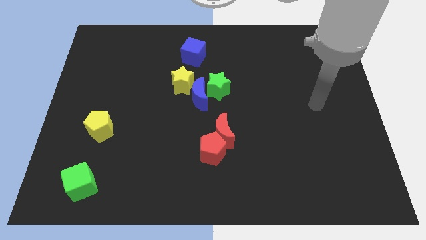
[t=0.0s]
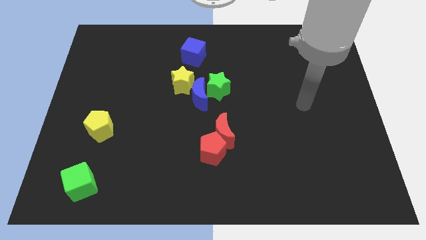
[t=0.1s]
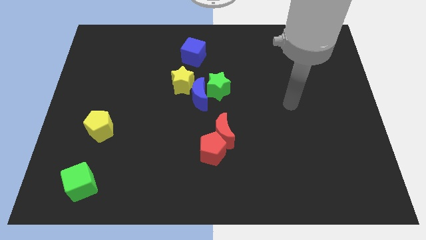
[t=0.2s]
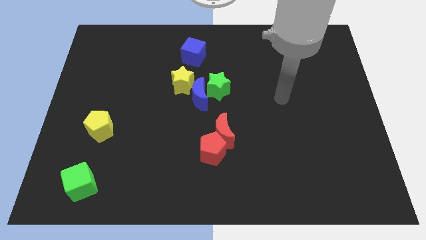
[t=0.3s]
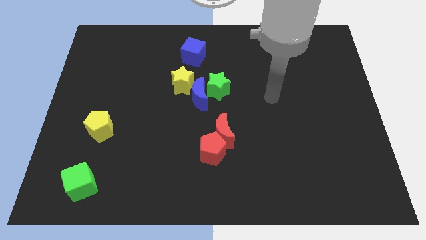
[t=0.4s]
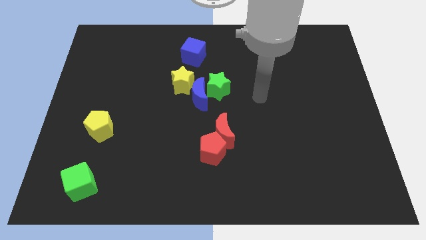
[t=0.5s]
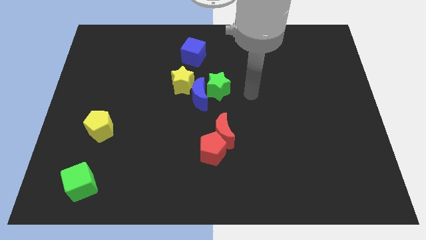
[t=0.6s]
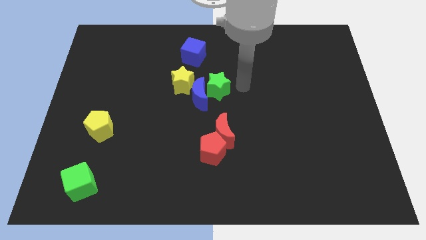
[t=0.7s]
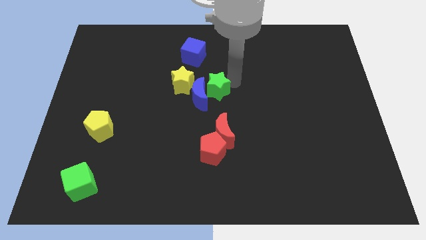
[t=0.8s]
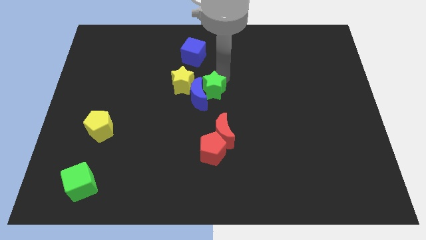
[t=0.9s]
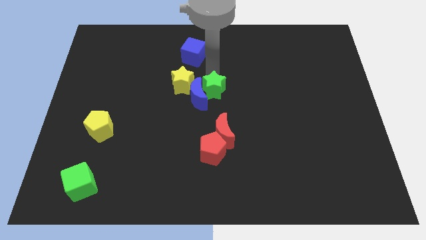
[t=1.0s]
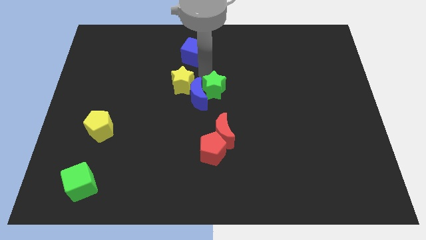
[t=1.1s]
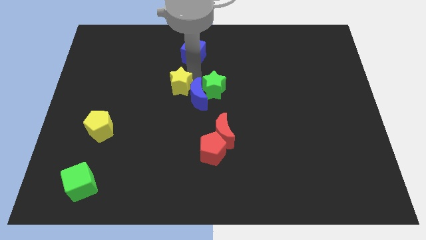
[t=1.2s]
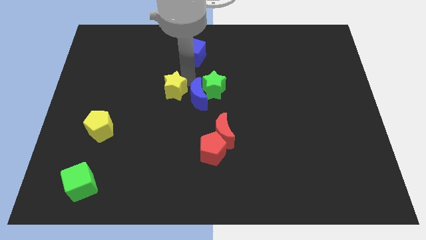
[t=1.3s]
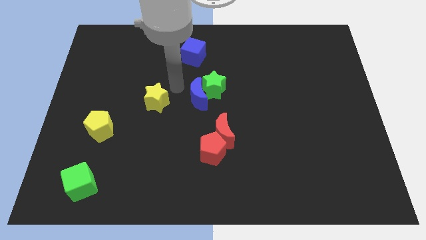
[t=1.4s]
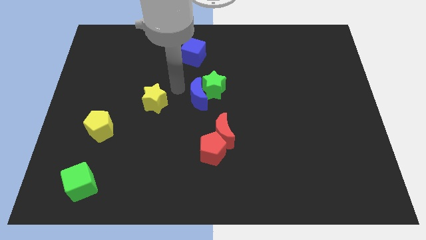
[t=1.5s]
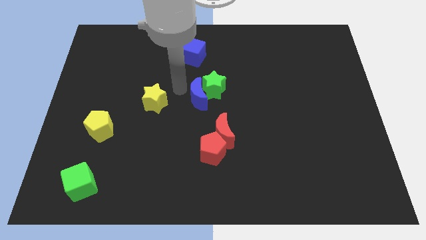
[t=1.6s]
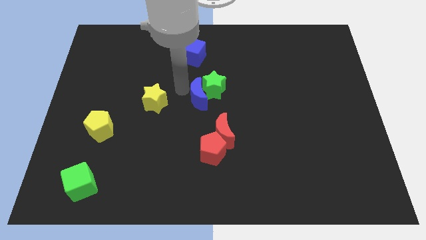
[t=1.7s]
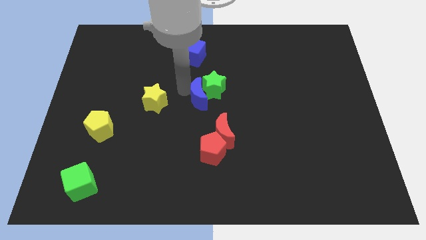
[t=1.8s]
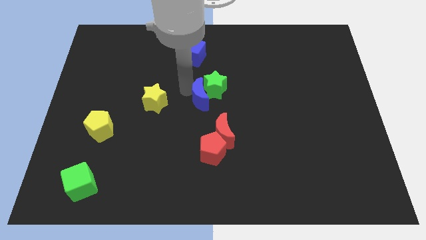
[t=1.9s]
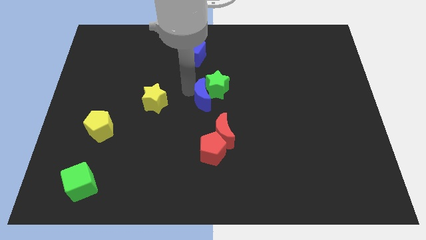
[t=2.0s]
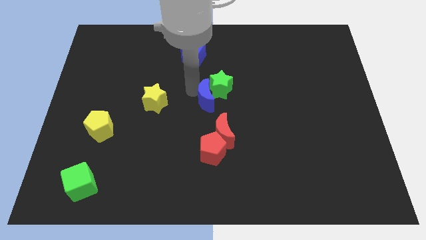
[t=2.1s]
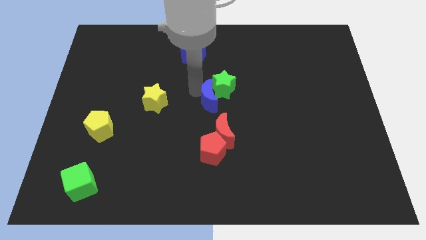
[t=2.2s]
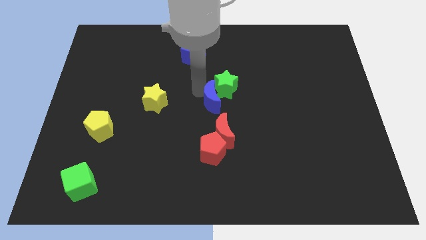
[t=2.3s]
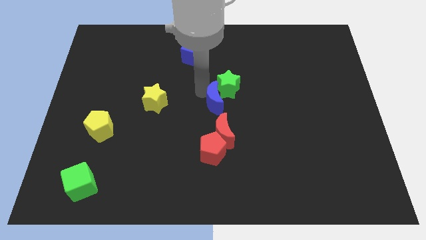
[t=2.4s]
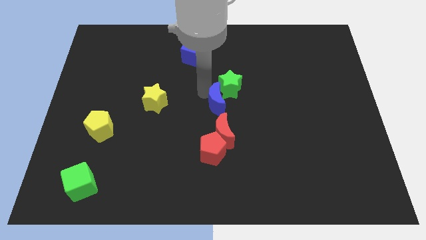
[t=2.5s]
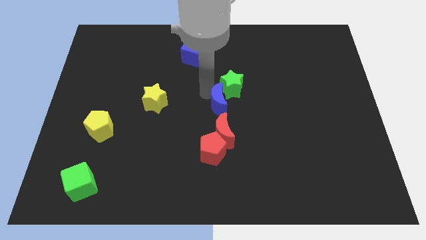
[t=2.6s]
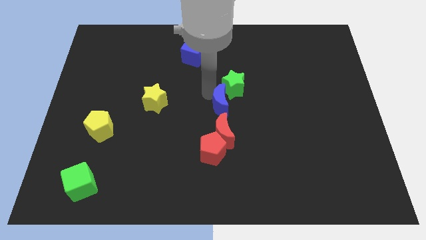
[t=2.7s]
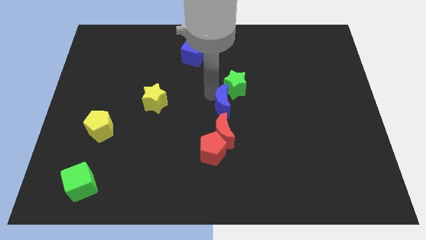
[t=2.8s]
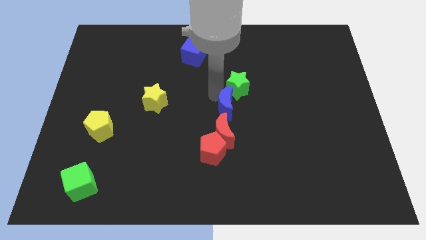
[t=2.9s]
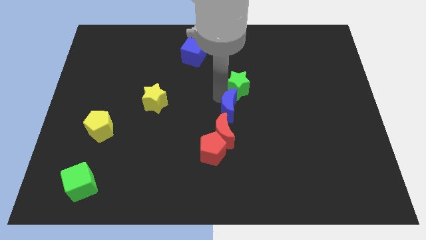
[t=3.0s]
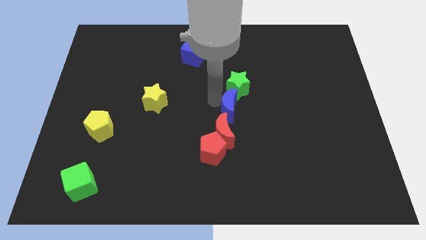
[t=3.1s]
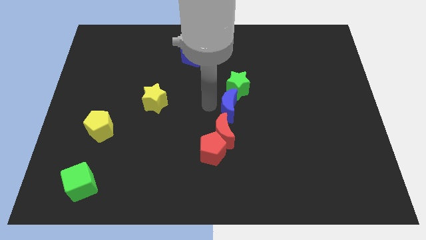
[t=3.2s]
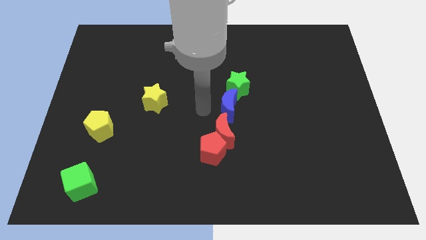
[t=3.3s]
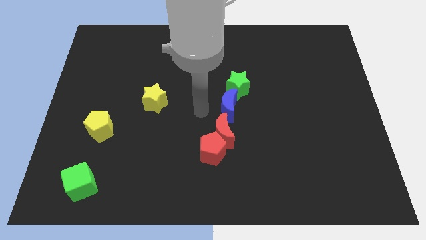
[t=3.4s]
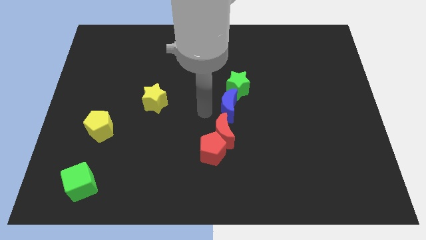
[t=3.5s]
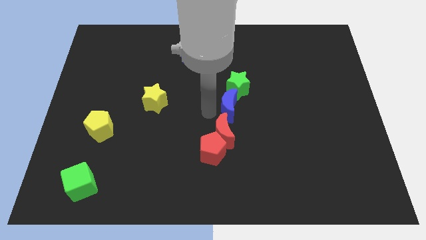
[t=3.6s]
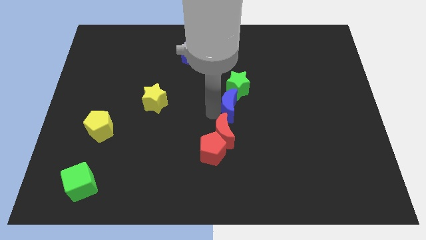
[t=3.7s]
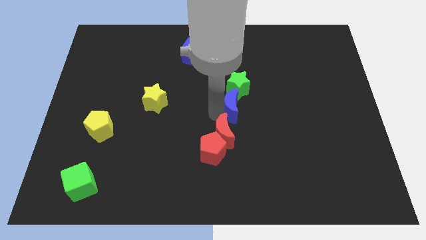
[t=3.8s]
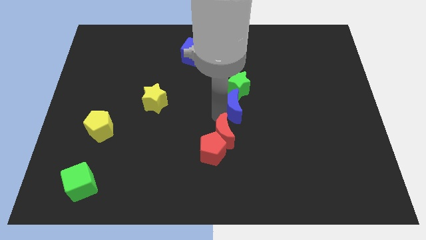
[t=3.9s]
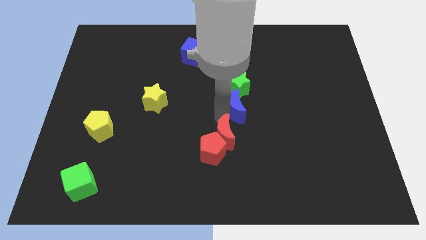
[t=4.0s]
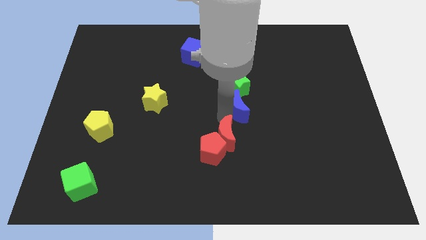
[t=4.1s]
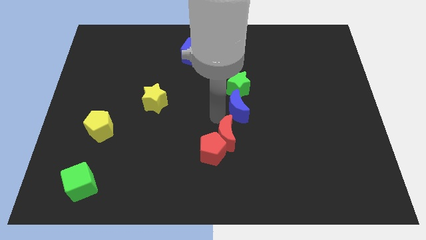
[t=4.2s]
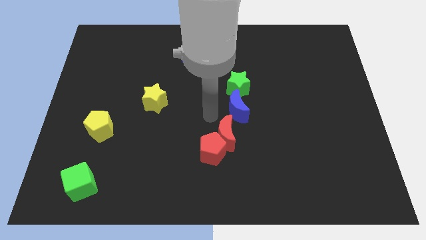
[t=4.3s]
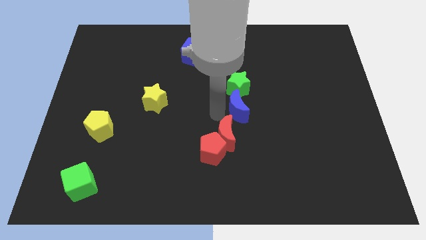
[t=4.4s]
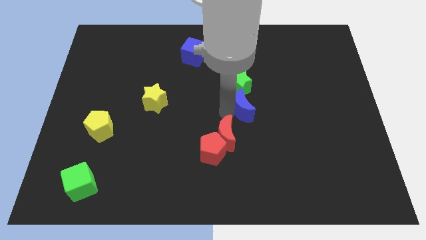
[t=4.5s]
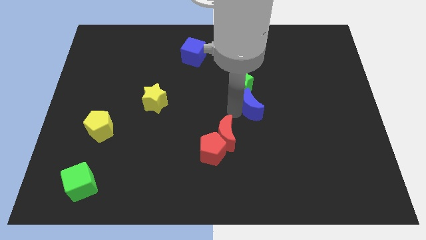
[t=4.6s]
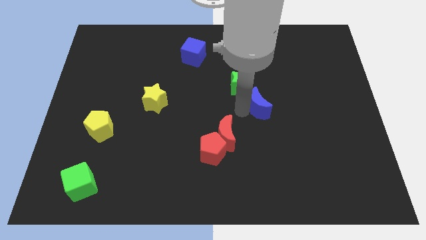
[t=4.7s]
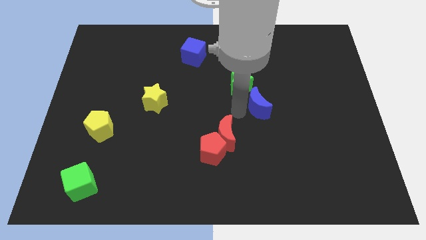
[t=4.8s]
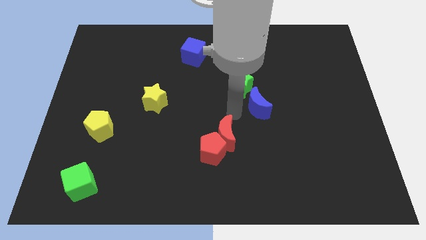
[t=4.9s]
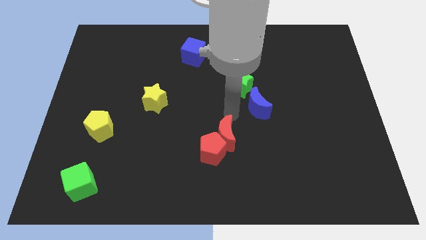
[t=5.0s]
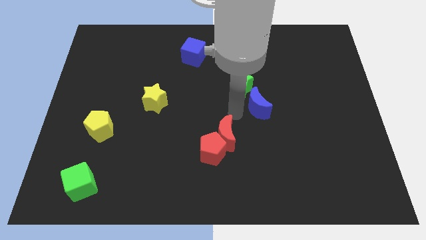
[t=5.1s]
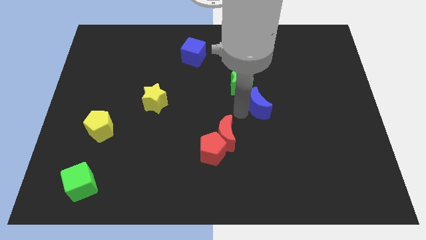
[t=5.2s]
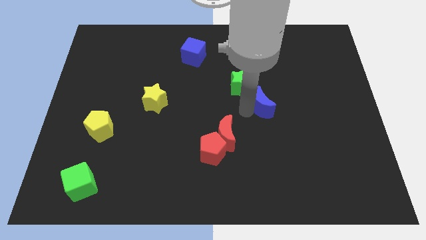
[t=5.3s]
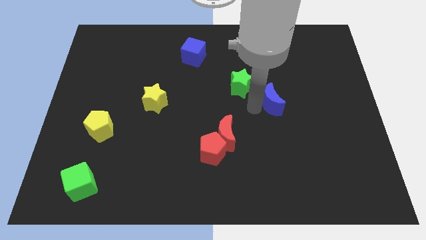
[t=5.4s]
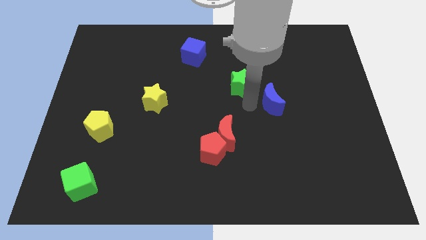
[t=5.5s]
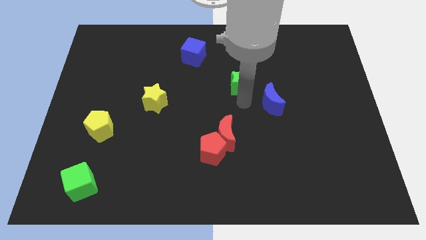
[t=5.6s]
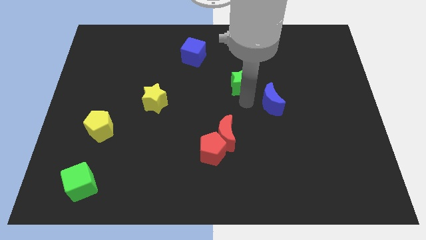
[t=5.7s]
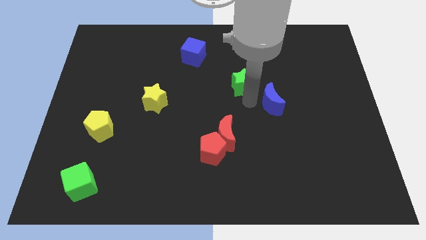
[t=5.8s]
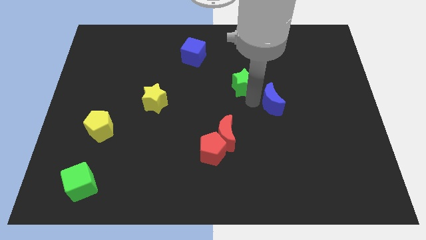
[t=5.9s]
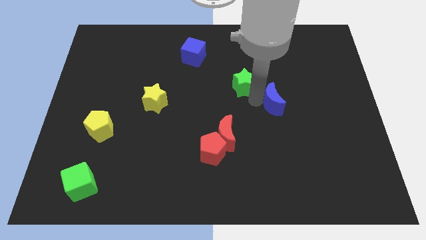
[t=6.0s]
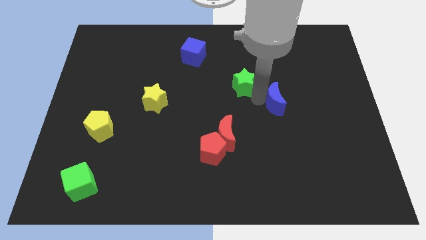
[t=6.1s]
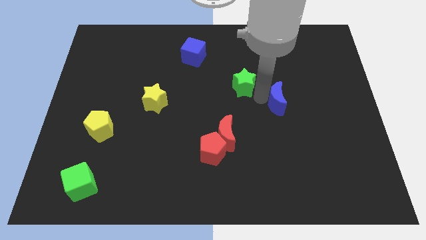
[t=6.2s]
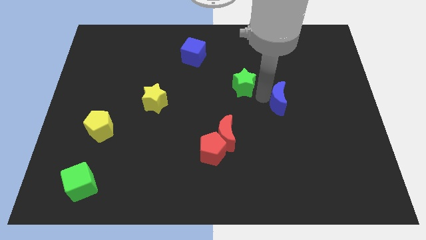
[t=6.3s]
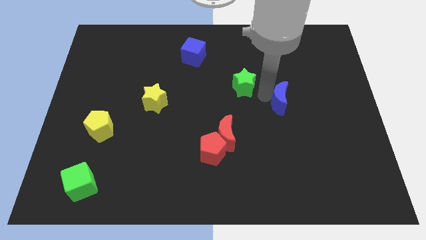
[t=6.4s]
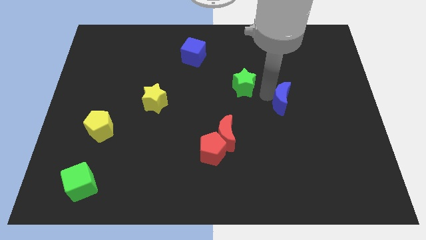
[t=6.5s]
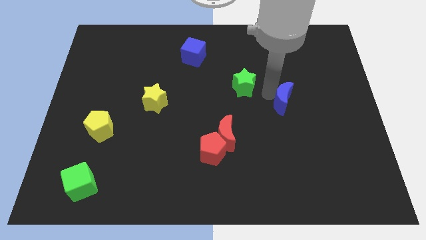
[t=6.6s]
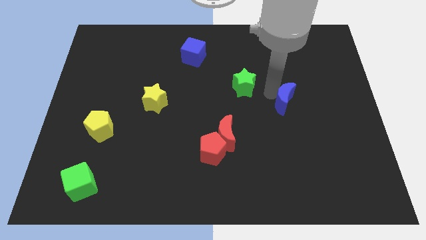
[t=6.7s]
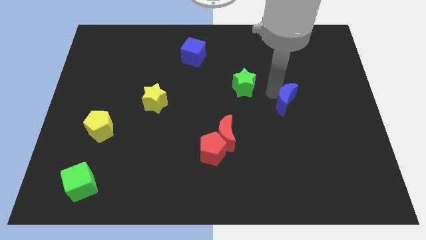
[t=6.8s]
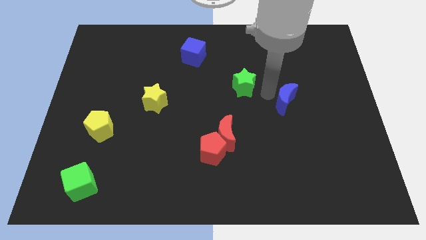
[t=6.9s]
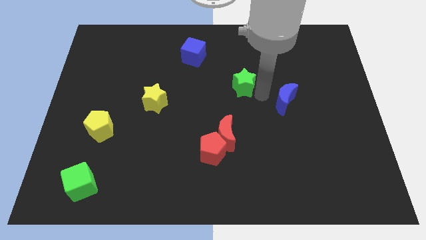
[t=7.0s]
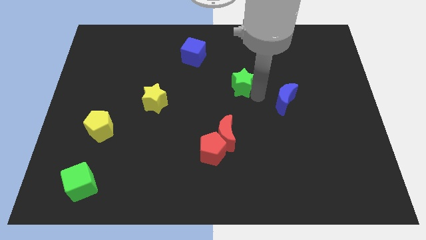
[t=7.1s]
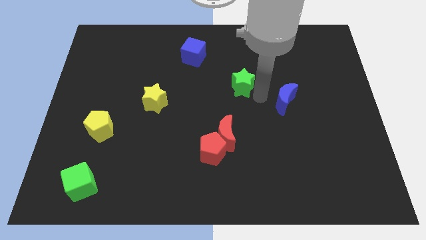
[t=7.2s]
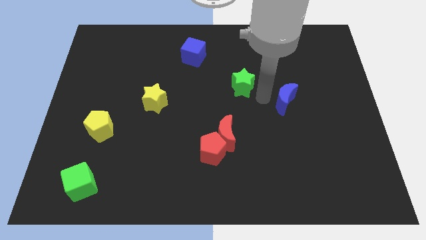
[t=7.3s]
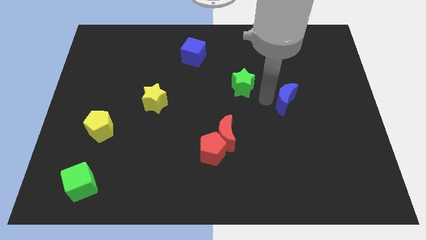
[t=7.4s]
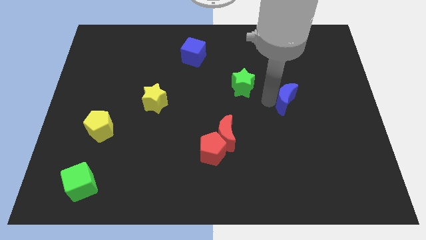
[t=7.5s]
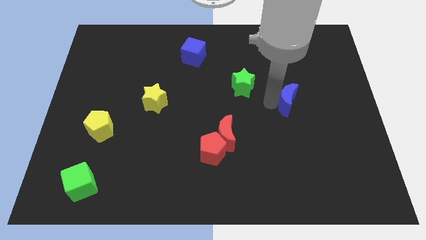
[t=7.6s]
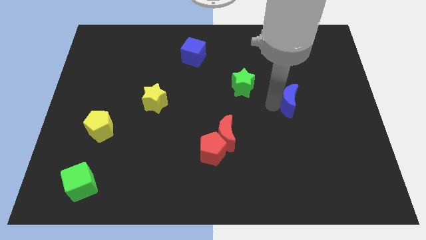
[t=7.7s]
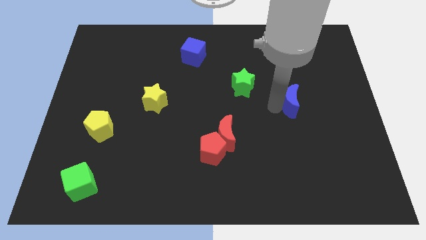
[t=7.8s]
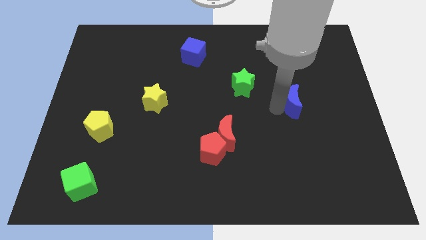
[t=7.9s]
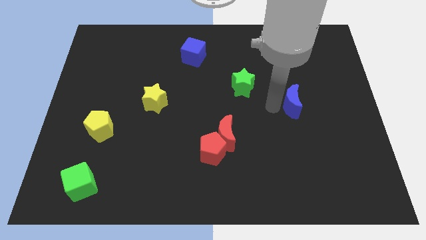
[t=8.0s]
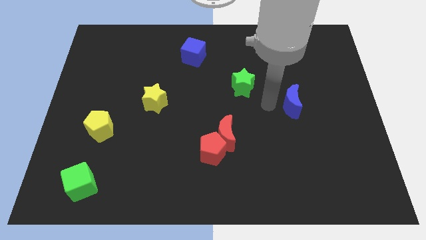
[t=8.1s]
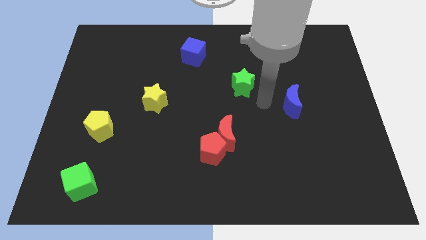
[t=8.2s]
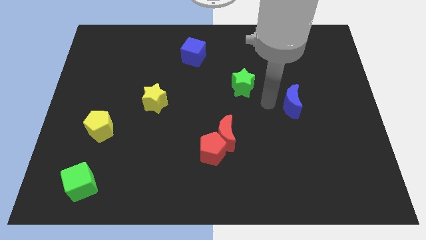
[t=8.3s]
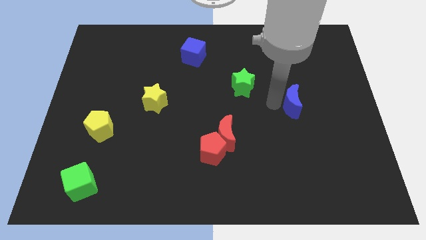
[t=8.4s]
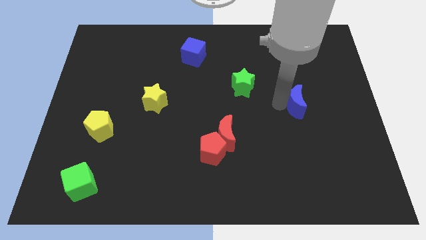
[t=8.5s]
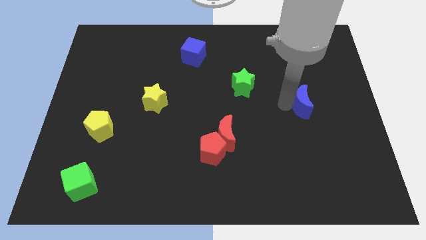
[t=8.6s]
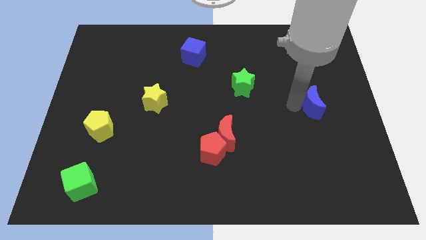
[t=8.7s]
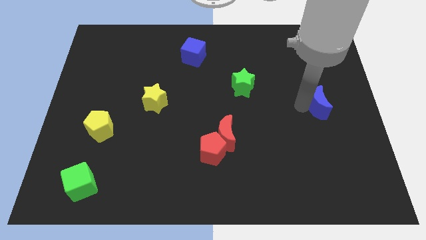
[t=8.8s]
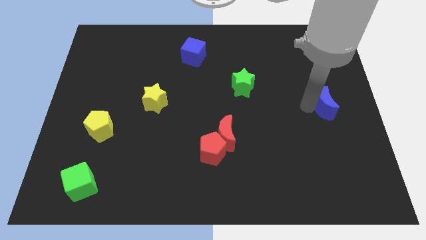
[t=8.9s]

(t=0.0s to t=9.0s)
move the blue moon to the right side of the board
